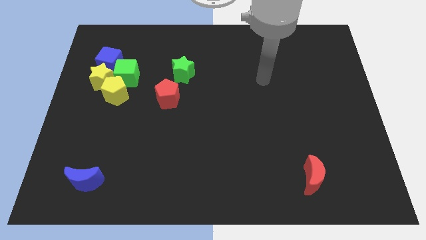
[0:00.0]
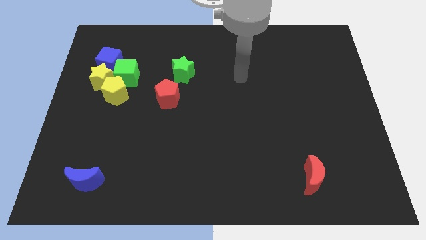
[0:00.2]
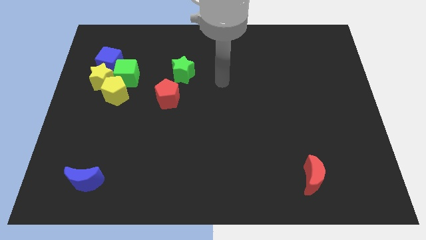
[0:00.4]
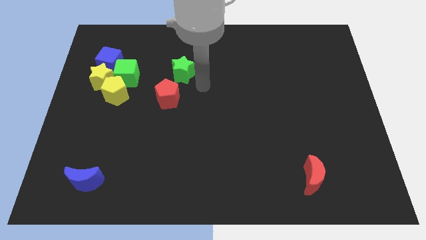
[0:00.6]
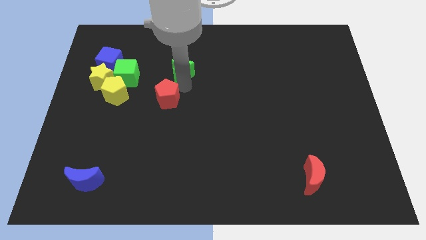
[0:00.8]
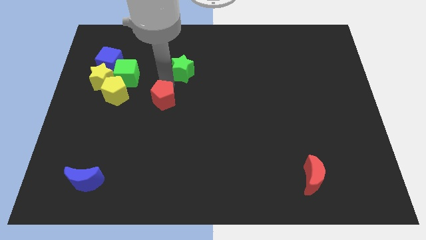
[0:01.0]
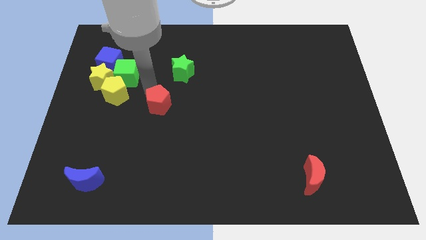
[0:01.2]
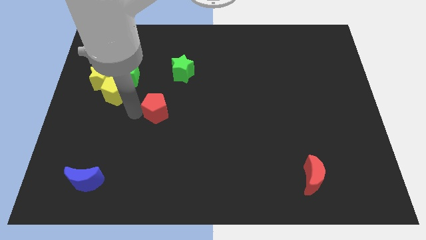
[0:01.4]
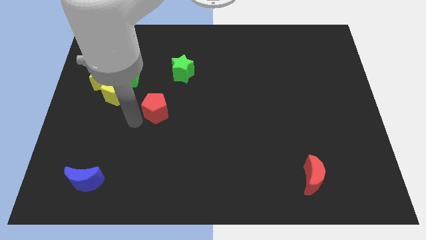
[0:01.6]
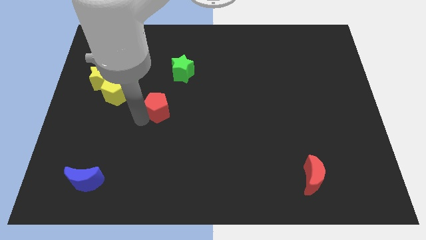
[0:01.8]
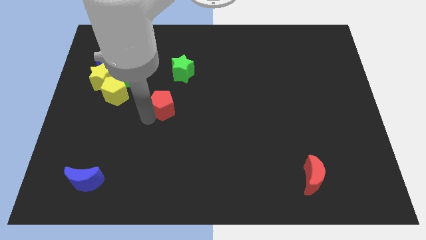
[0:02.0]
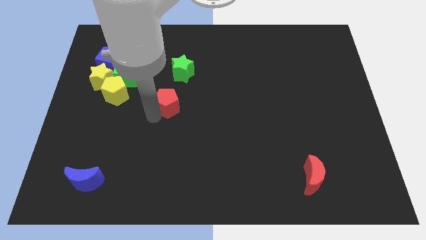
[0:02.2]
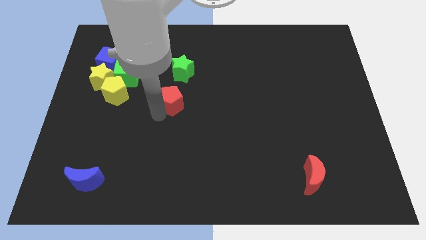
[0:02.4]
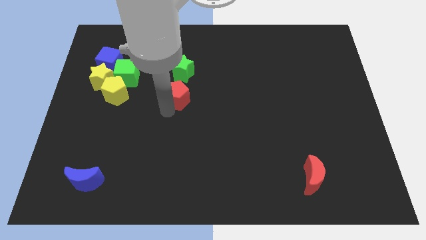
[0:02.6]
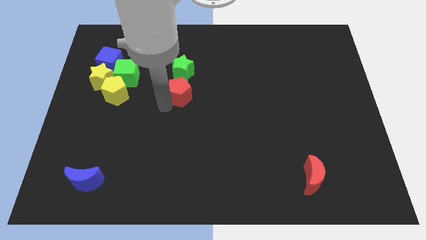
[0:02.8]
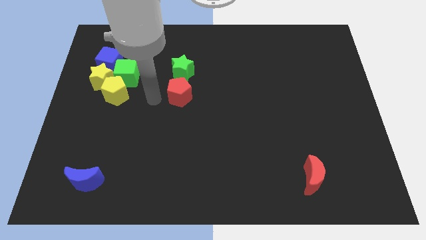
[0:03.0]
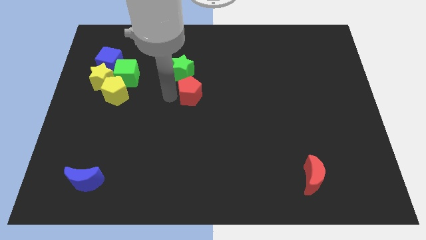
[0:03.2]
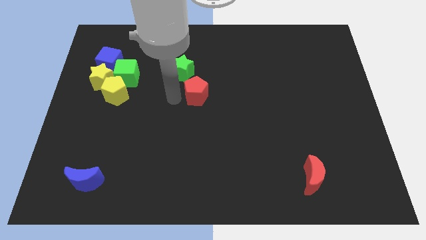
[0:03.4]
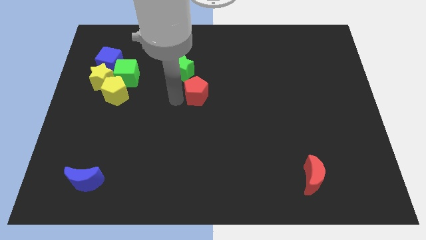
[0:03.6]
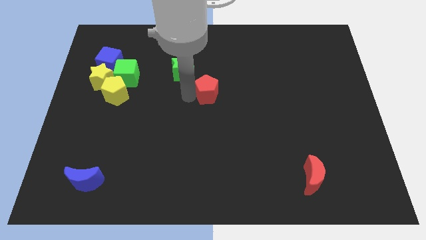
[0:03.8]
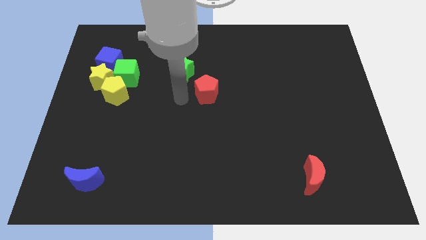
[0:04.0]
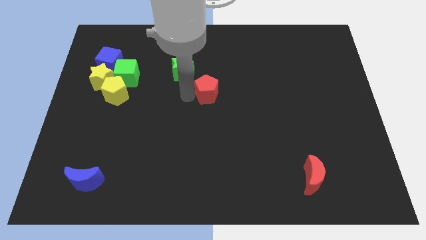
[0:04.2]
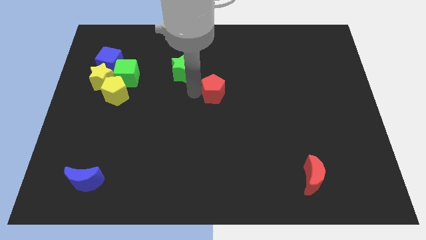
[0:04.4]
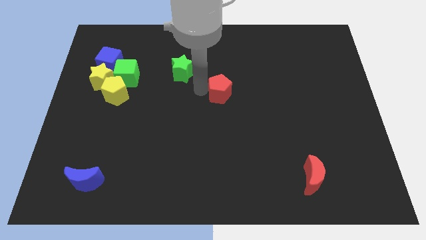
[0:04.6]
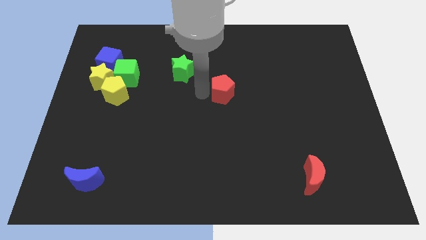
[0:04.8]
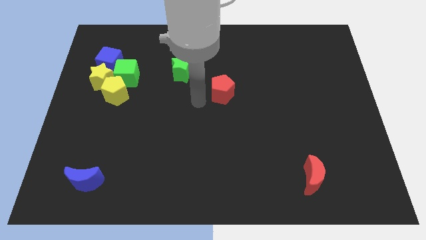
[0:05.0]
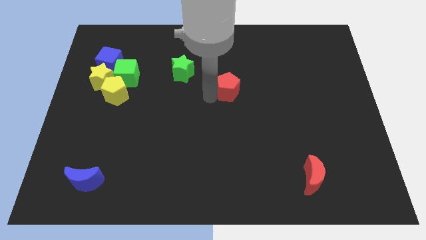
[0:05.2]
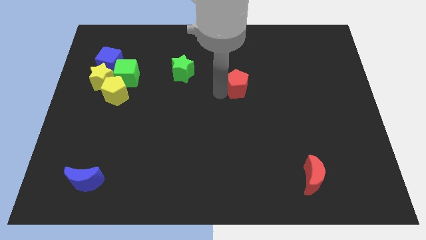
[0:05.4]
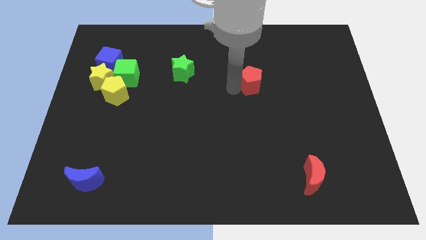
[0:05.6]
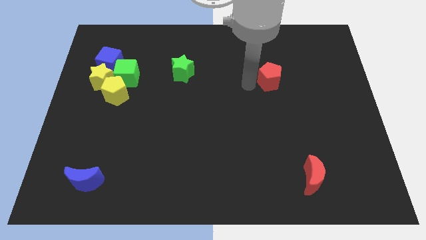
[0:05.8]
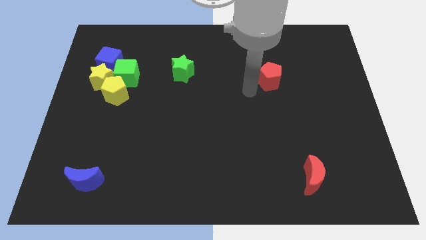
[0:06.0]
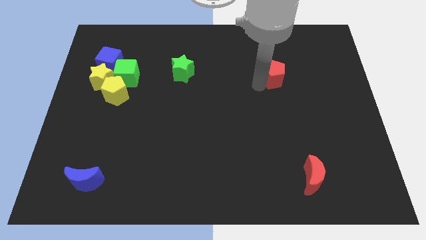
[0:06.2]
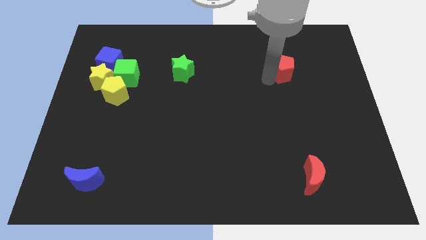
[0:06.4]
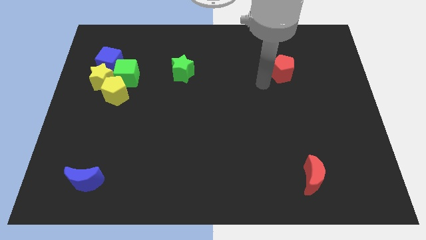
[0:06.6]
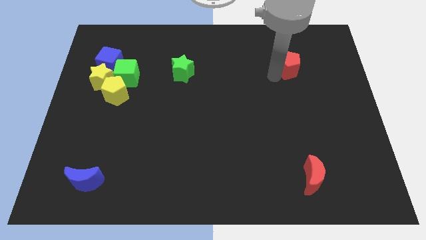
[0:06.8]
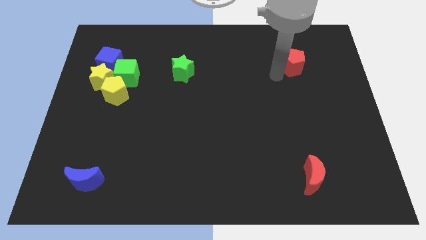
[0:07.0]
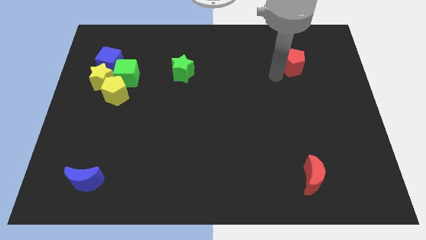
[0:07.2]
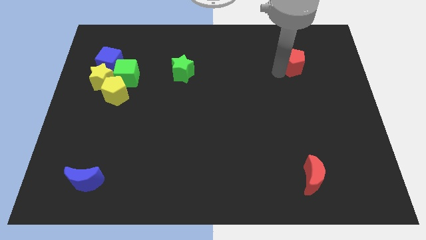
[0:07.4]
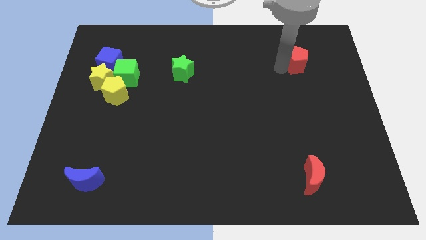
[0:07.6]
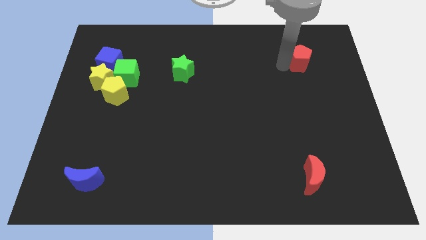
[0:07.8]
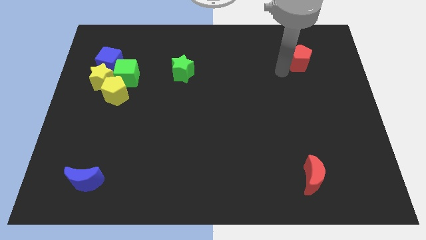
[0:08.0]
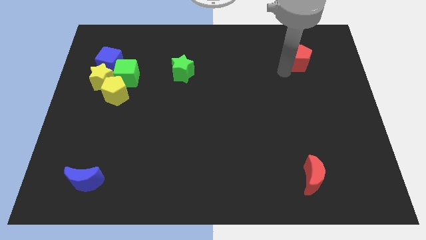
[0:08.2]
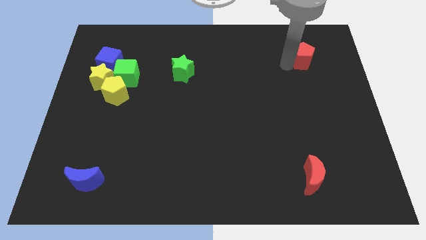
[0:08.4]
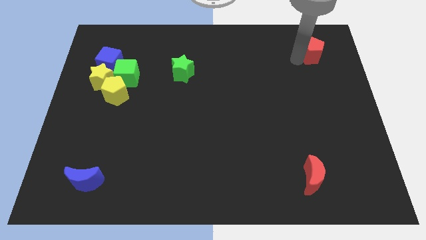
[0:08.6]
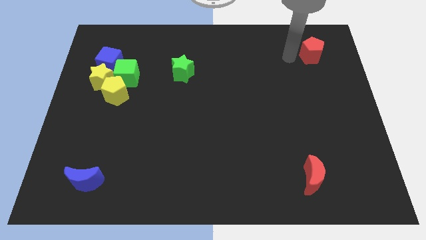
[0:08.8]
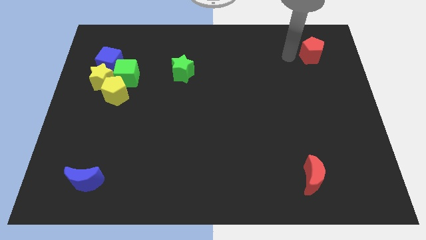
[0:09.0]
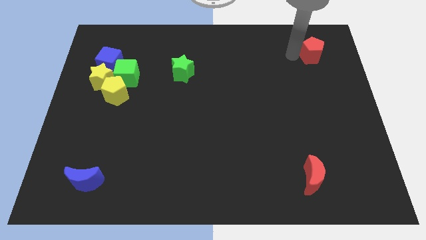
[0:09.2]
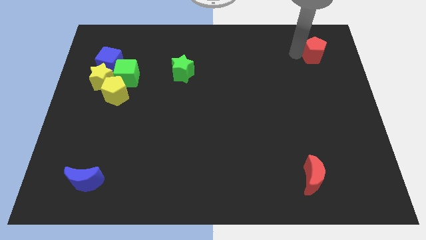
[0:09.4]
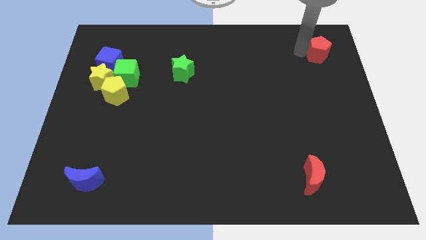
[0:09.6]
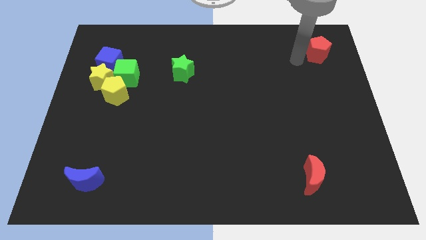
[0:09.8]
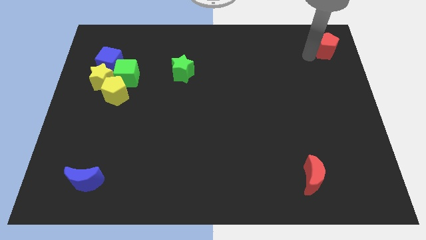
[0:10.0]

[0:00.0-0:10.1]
put the red pentagon to the top right corner

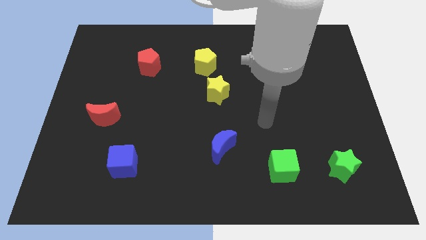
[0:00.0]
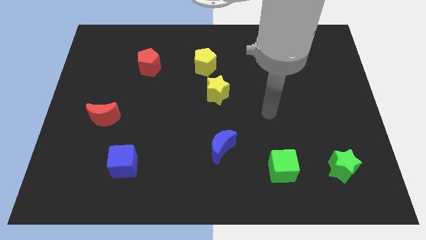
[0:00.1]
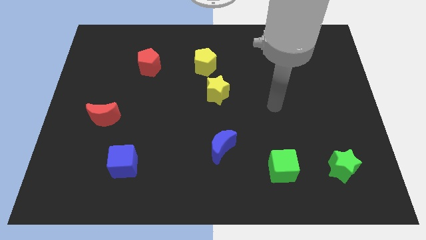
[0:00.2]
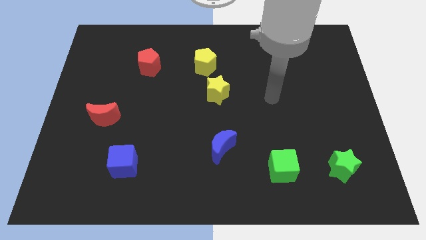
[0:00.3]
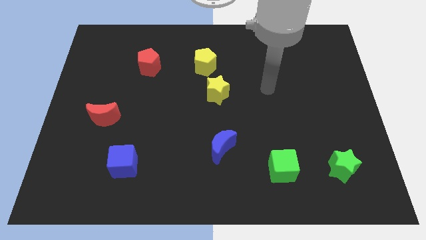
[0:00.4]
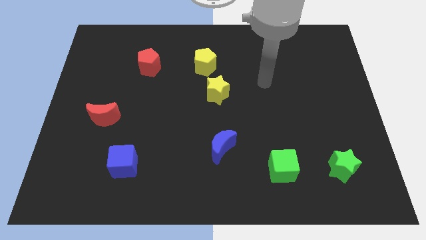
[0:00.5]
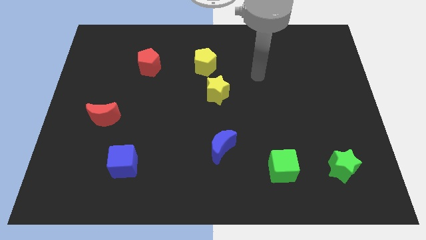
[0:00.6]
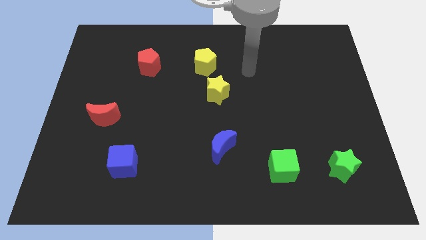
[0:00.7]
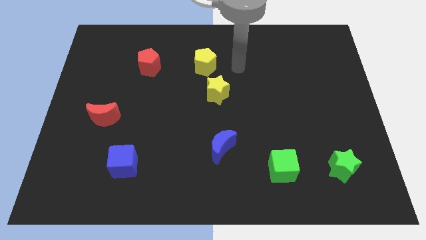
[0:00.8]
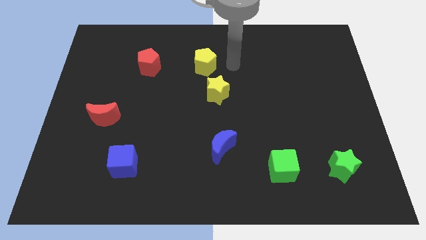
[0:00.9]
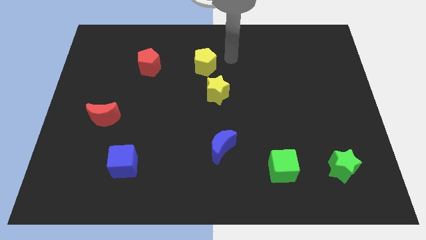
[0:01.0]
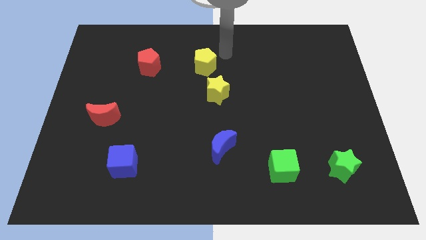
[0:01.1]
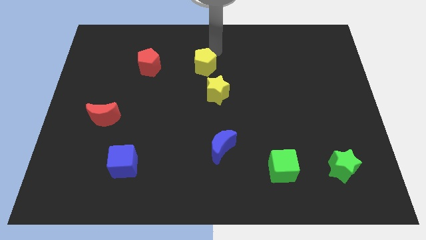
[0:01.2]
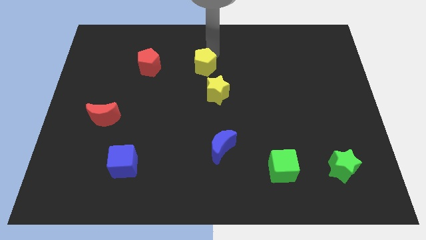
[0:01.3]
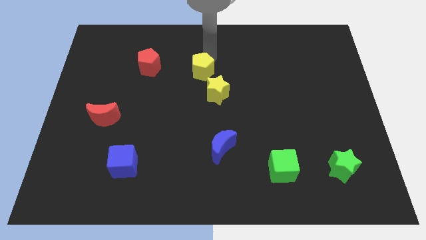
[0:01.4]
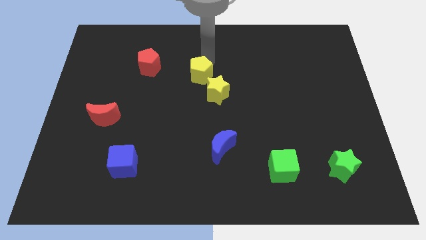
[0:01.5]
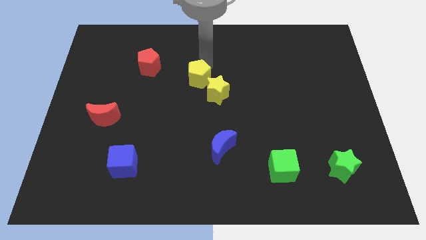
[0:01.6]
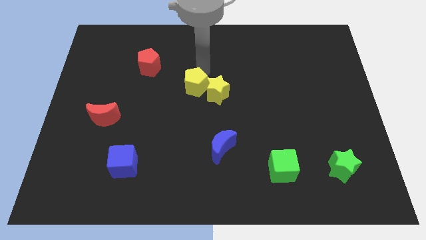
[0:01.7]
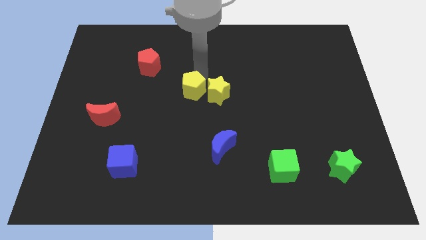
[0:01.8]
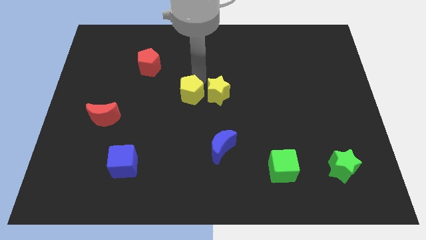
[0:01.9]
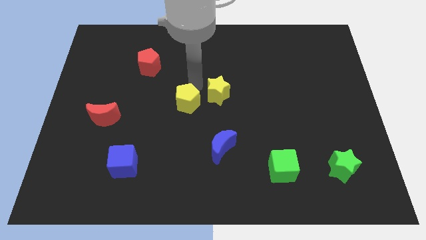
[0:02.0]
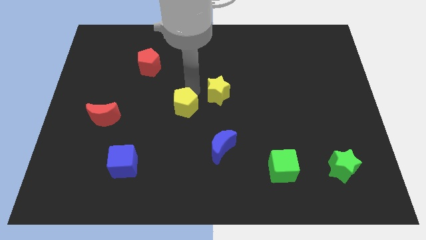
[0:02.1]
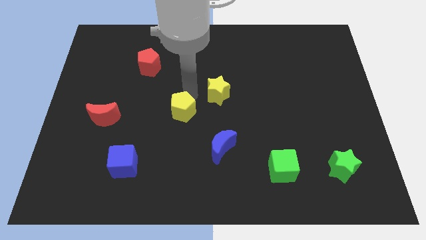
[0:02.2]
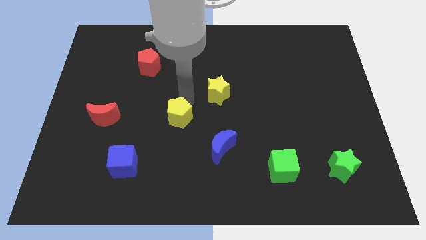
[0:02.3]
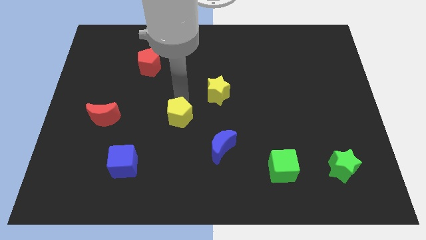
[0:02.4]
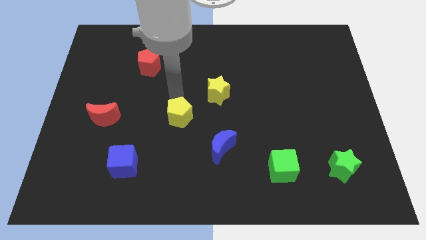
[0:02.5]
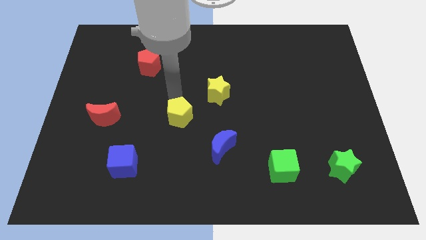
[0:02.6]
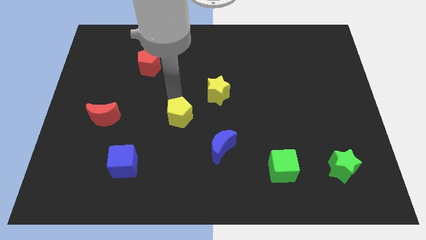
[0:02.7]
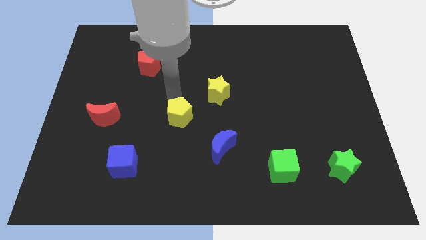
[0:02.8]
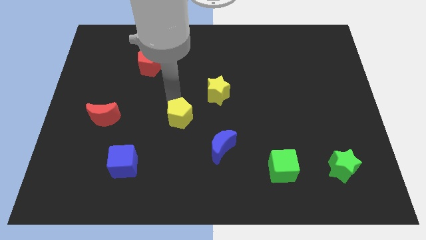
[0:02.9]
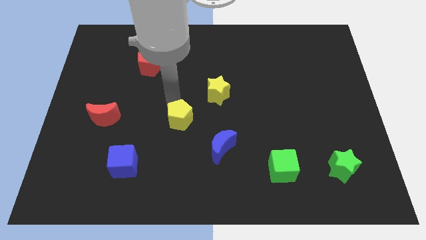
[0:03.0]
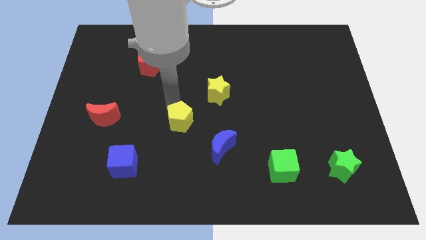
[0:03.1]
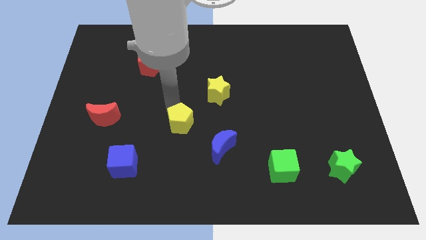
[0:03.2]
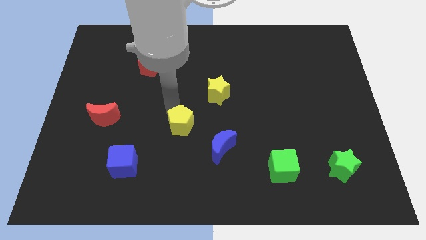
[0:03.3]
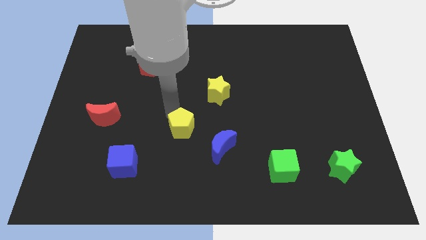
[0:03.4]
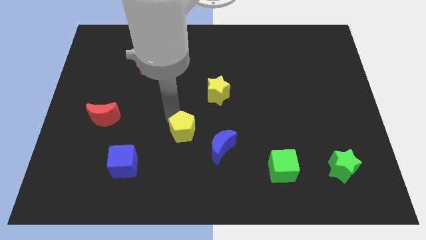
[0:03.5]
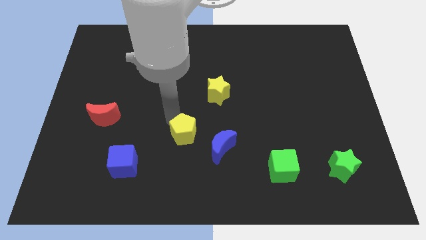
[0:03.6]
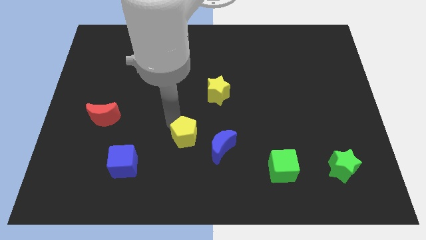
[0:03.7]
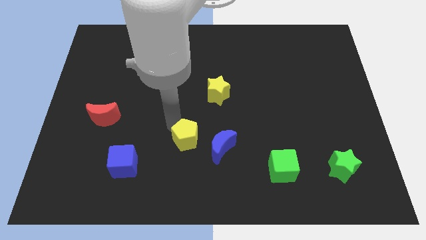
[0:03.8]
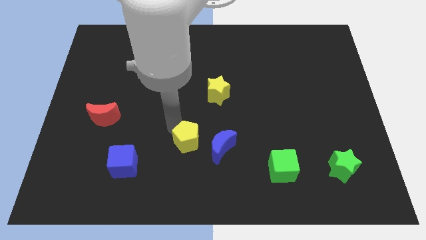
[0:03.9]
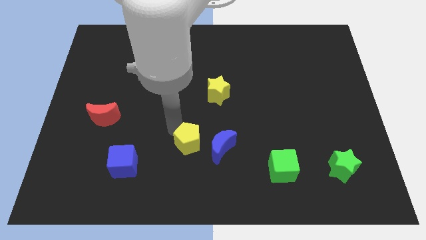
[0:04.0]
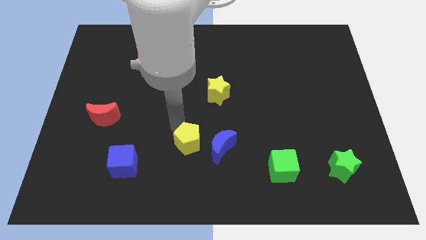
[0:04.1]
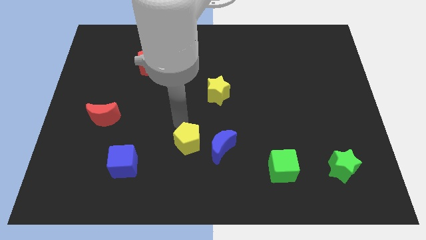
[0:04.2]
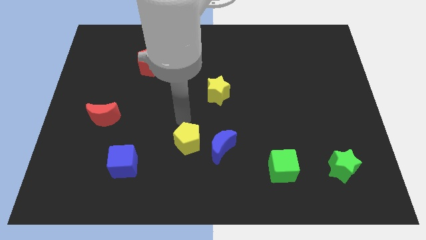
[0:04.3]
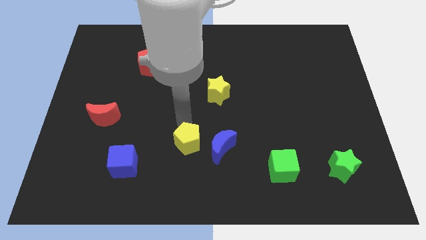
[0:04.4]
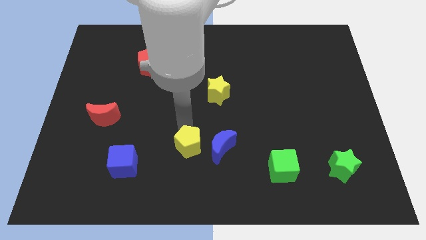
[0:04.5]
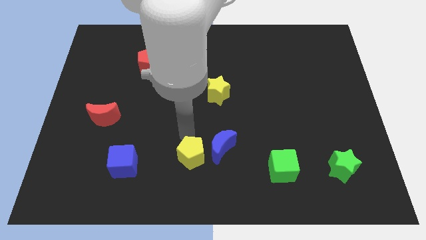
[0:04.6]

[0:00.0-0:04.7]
slide the yellow pentagon to the bottom side
